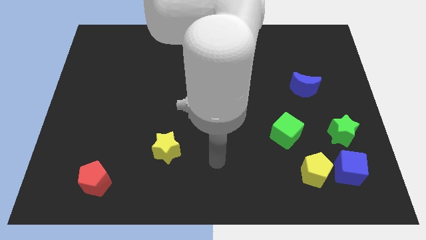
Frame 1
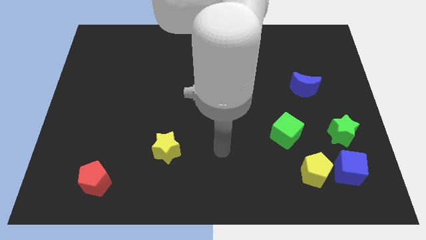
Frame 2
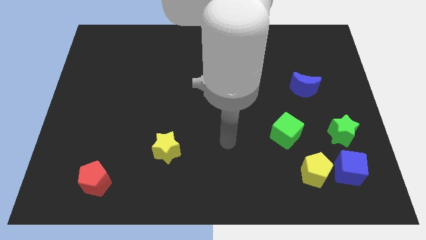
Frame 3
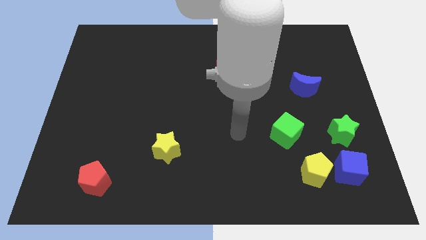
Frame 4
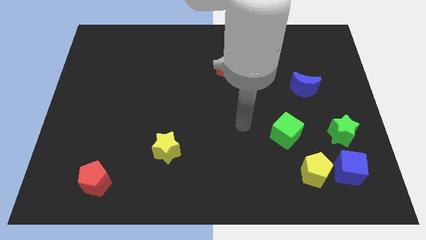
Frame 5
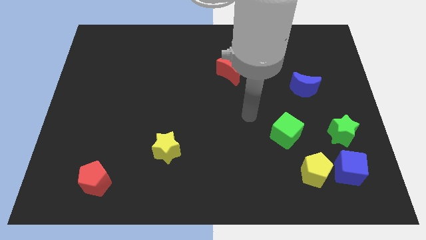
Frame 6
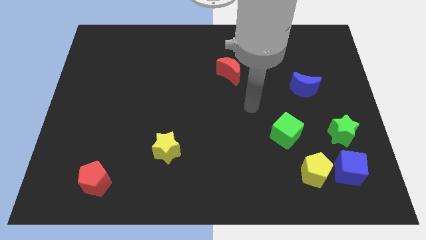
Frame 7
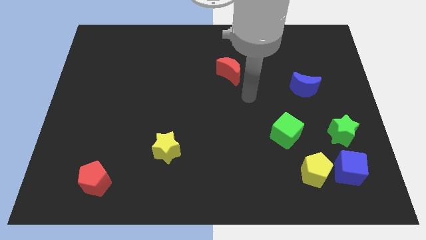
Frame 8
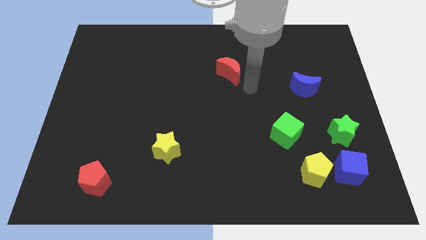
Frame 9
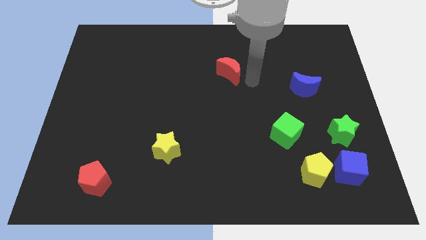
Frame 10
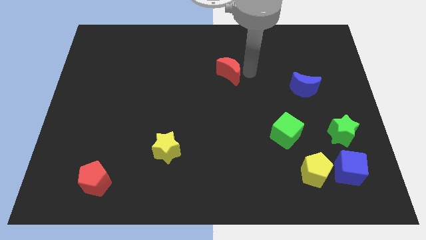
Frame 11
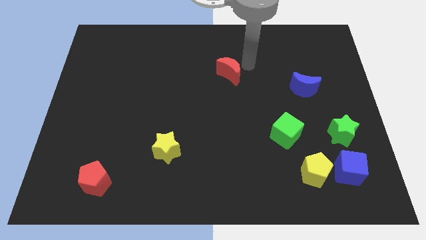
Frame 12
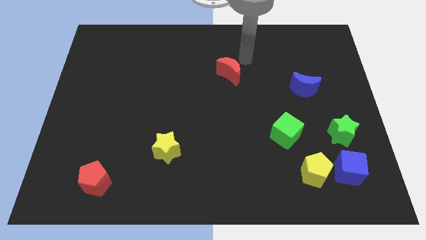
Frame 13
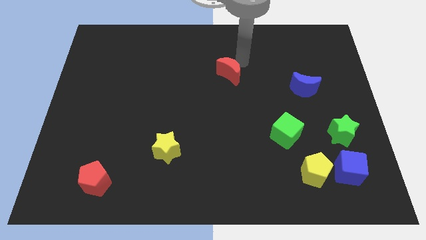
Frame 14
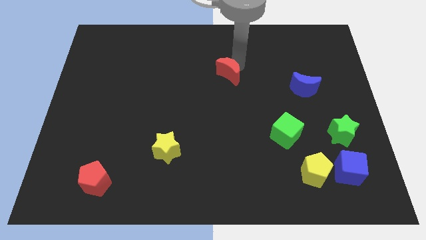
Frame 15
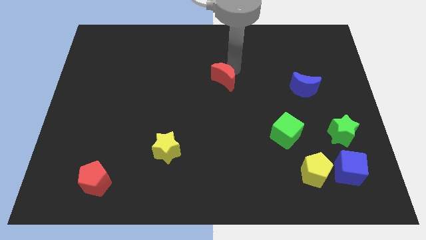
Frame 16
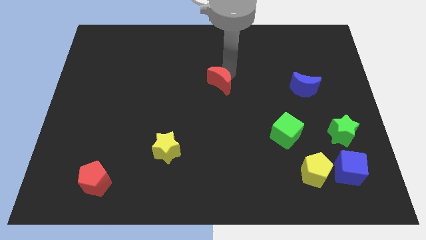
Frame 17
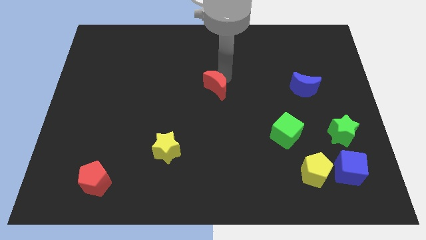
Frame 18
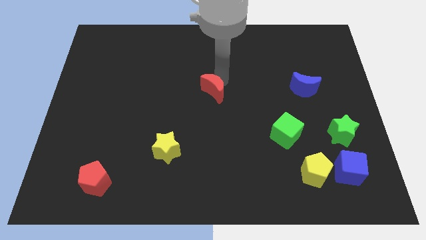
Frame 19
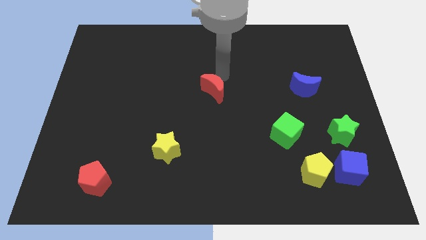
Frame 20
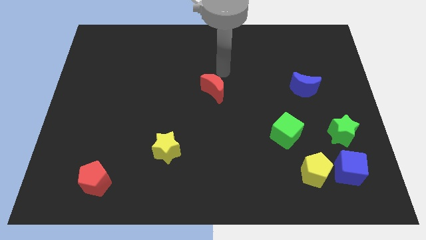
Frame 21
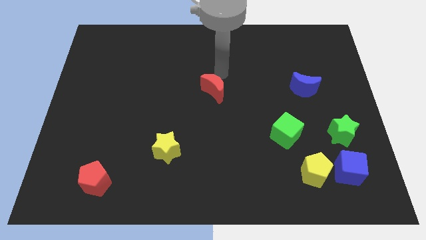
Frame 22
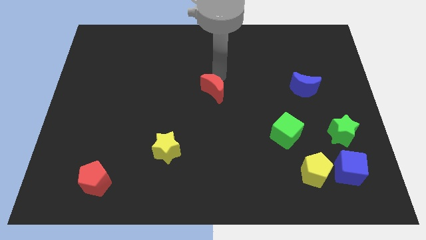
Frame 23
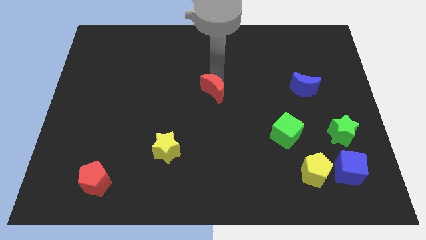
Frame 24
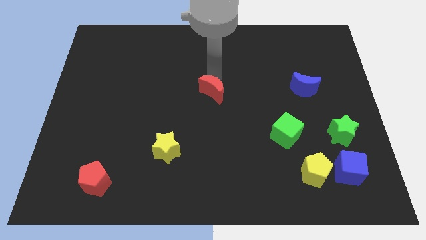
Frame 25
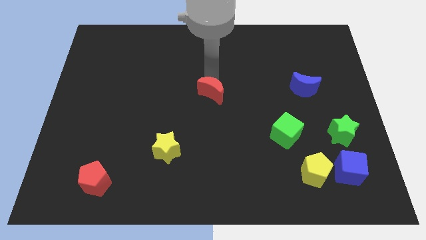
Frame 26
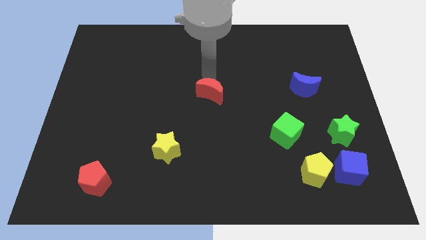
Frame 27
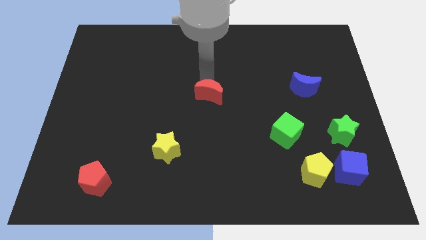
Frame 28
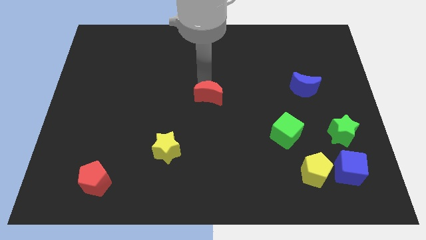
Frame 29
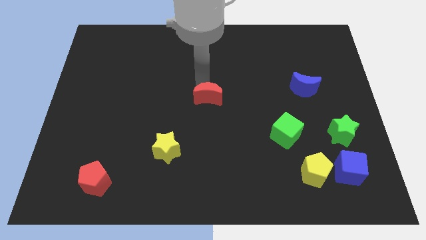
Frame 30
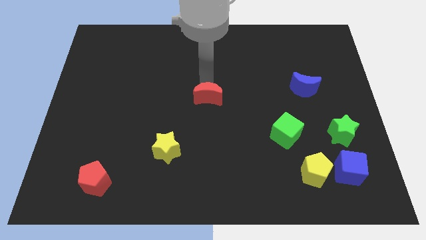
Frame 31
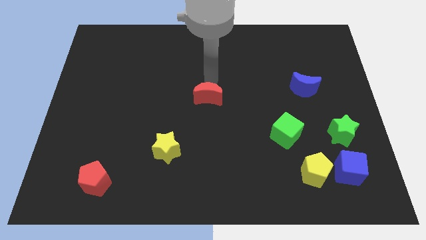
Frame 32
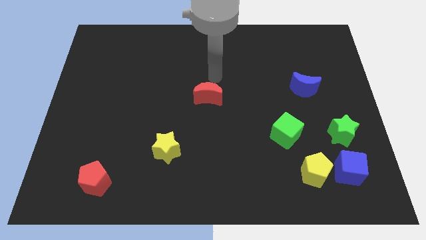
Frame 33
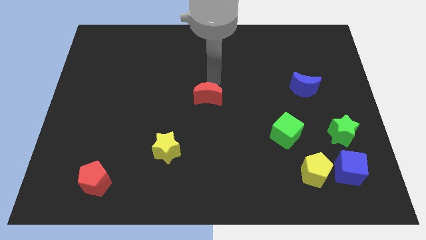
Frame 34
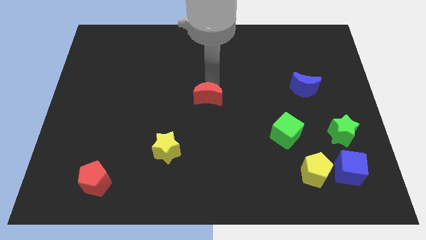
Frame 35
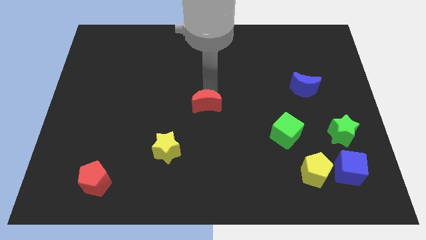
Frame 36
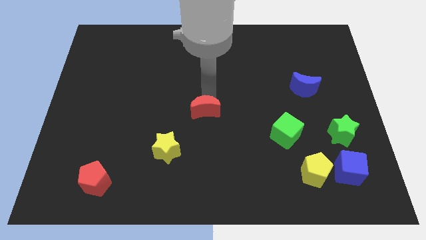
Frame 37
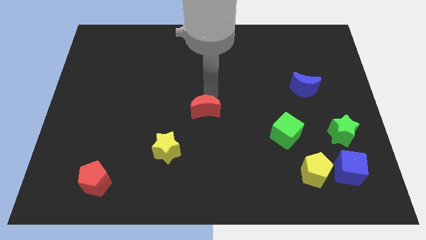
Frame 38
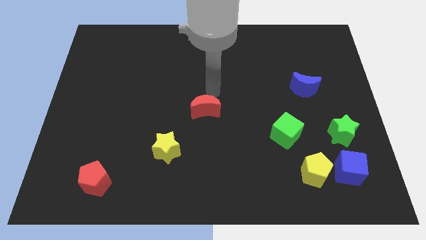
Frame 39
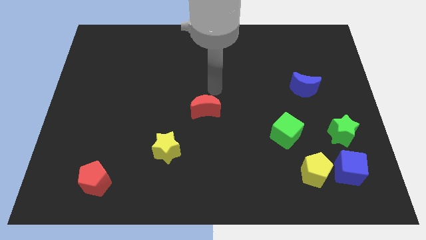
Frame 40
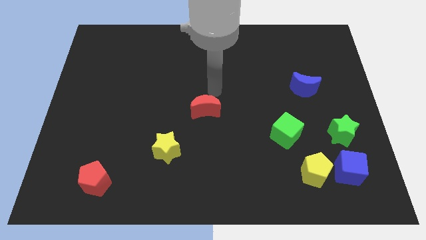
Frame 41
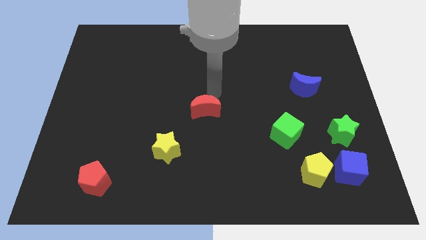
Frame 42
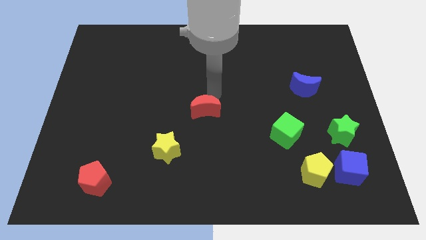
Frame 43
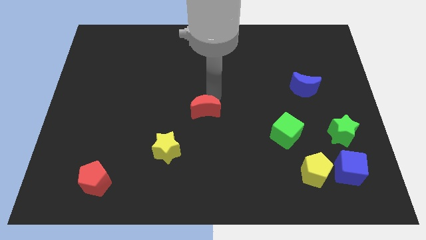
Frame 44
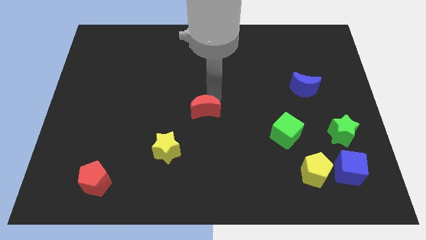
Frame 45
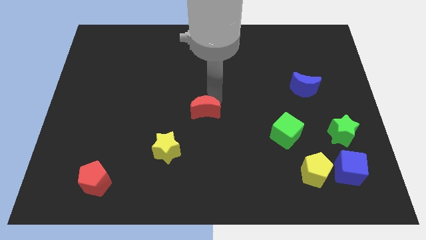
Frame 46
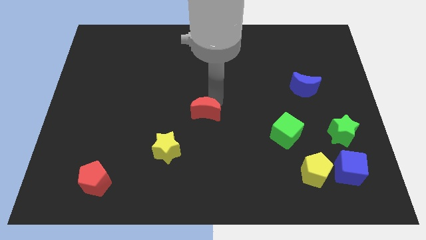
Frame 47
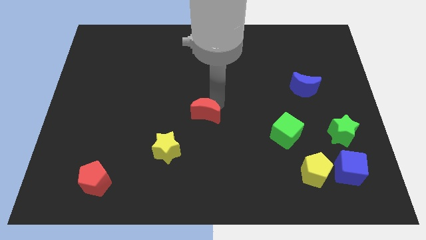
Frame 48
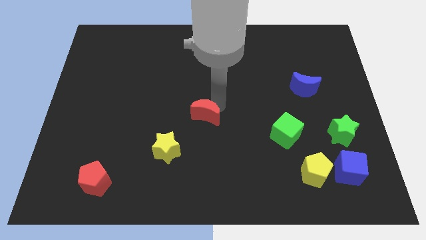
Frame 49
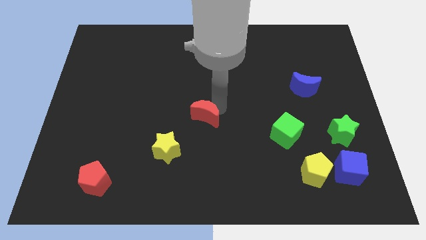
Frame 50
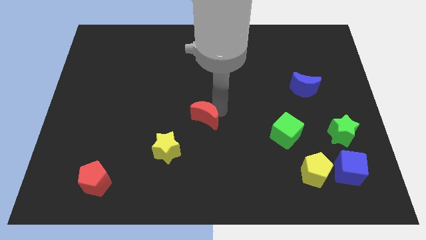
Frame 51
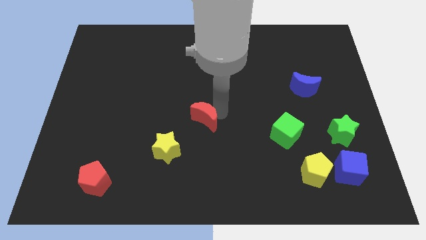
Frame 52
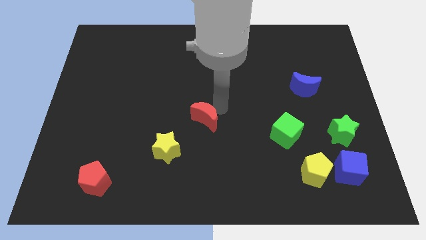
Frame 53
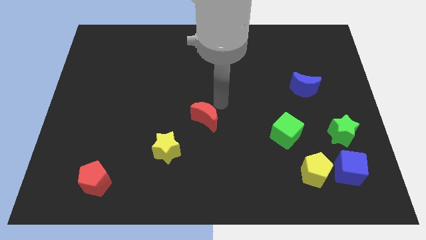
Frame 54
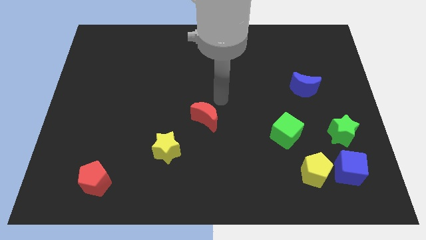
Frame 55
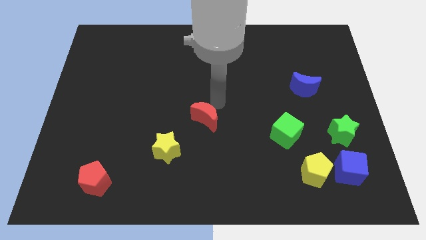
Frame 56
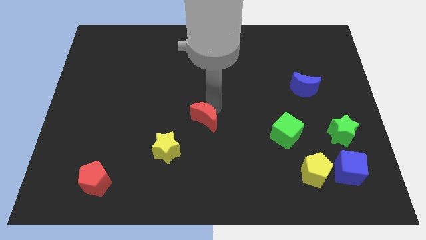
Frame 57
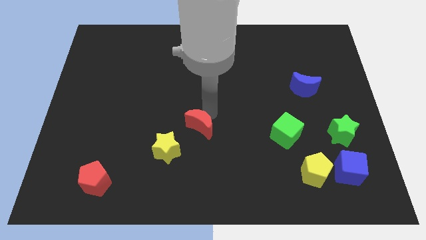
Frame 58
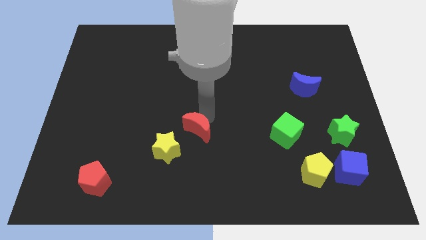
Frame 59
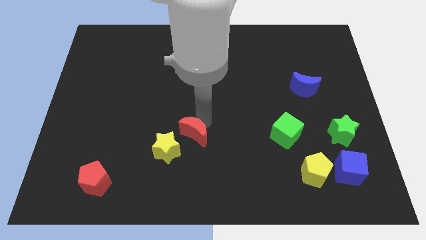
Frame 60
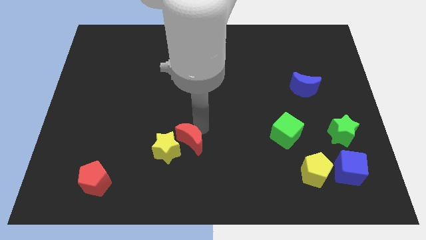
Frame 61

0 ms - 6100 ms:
push the red moon towards the yellow star

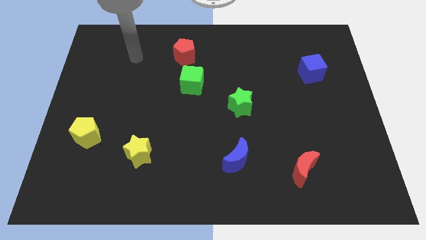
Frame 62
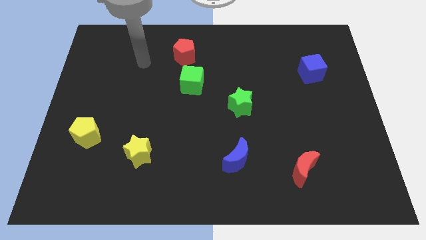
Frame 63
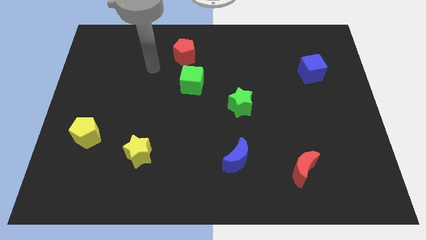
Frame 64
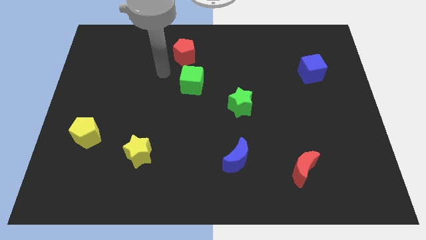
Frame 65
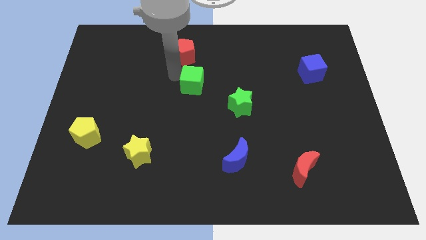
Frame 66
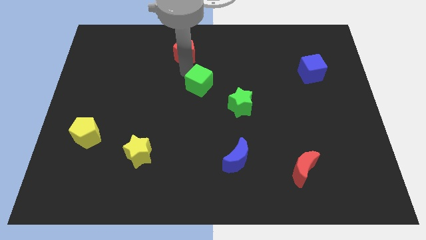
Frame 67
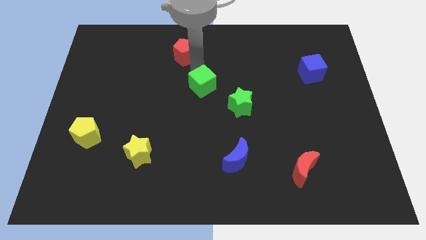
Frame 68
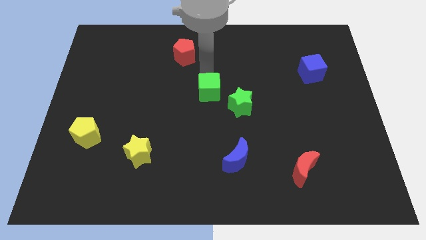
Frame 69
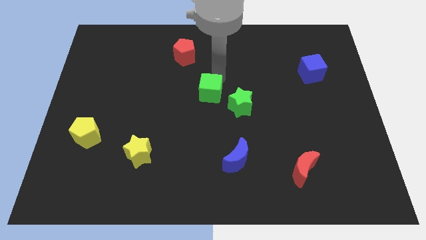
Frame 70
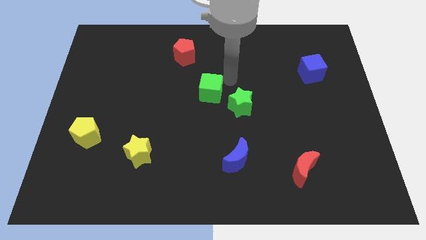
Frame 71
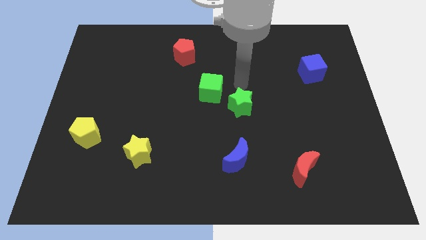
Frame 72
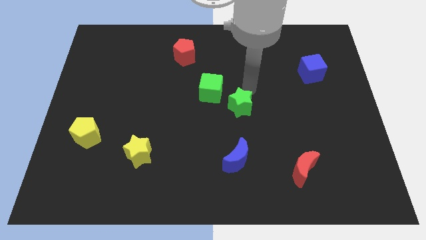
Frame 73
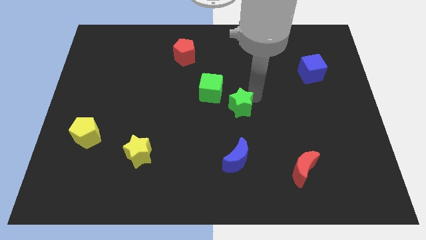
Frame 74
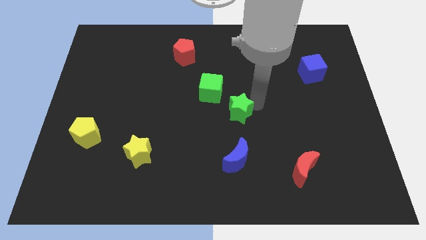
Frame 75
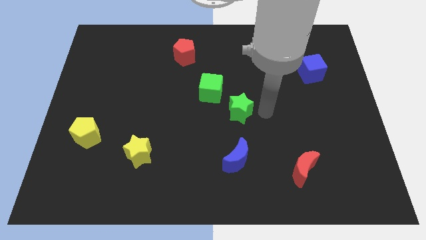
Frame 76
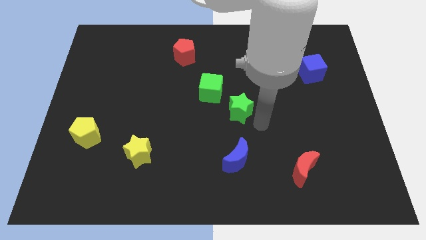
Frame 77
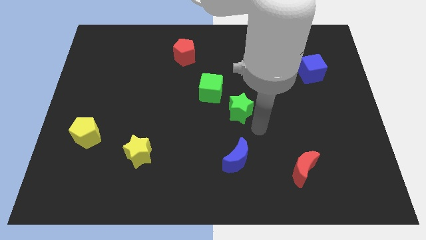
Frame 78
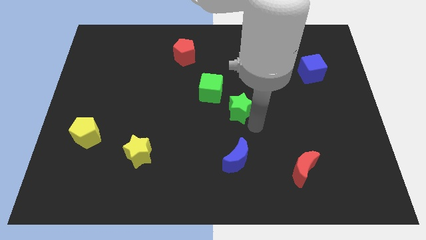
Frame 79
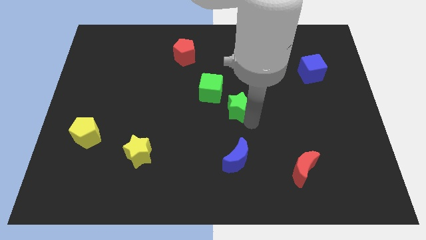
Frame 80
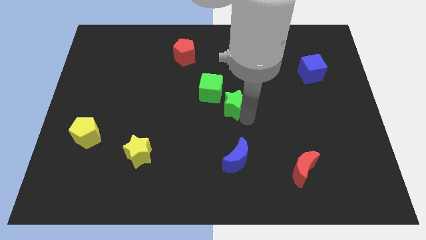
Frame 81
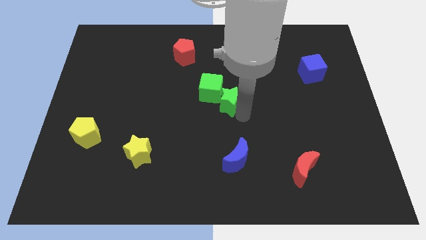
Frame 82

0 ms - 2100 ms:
move the green star next to the green cube
